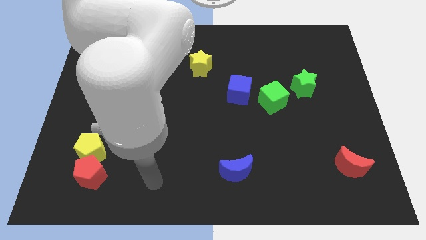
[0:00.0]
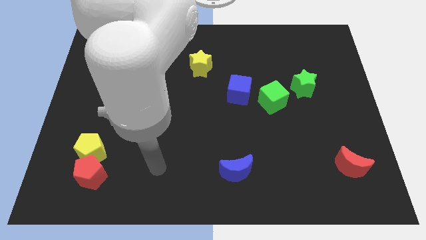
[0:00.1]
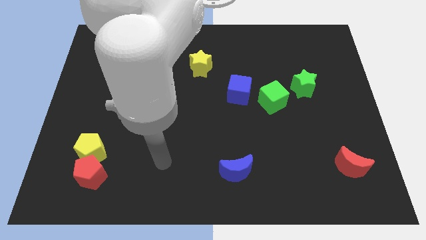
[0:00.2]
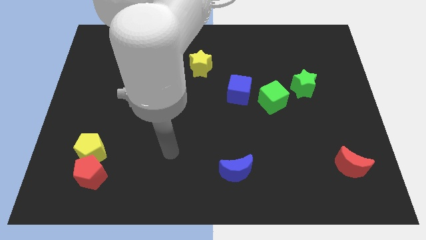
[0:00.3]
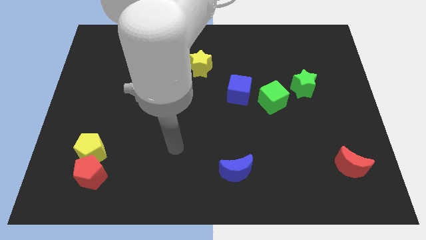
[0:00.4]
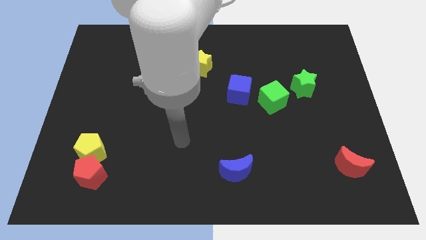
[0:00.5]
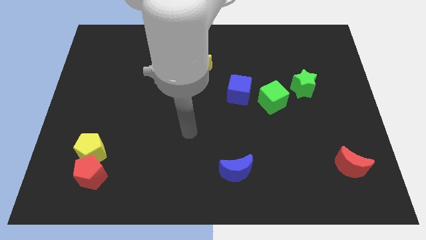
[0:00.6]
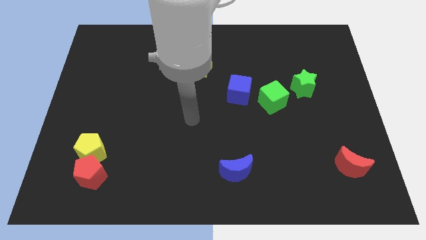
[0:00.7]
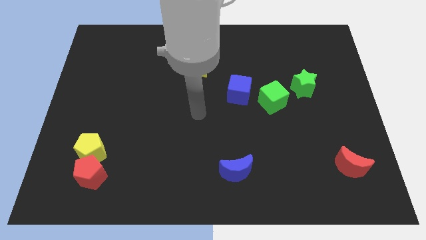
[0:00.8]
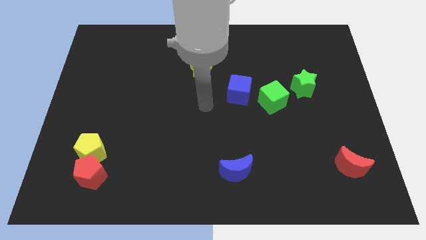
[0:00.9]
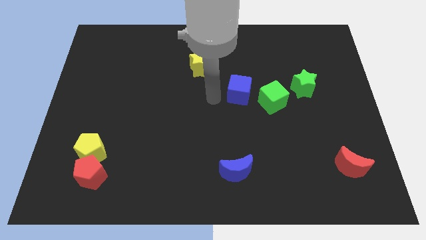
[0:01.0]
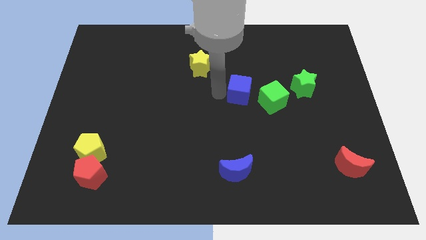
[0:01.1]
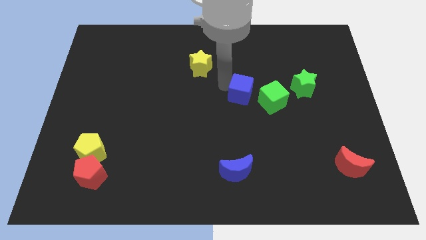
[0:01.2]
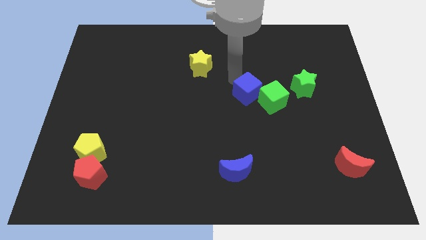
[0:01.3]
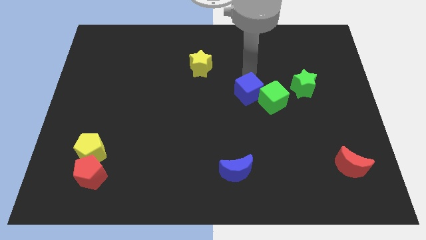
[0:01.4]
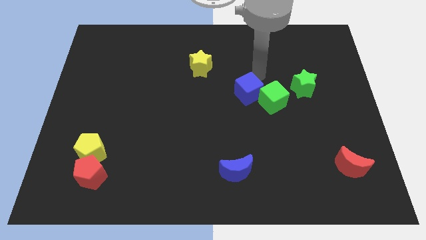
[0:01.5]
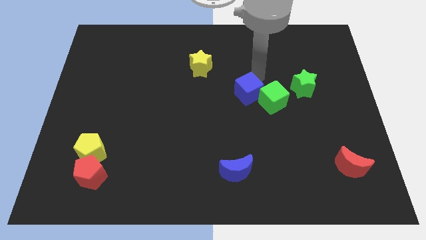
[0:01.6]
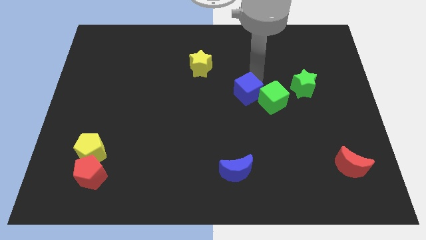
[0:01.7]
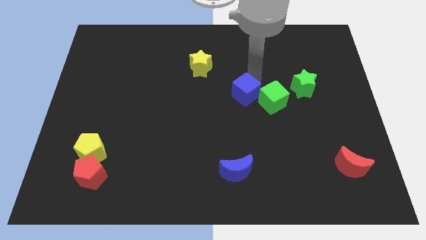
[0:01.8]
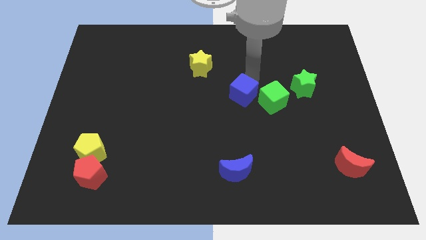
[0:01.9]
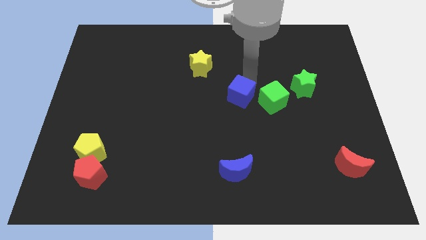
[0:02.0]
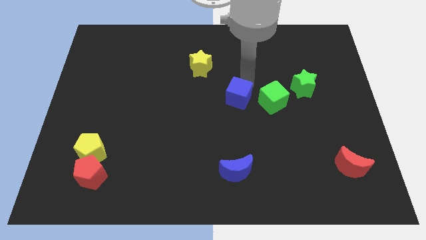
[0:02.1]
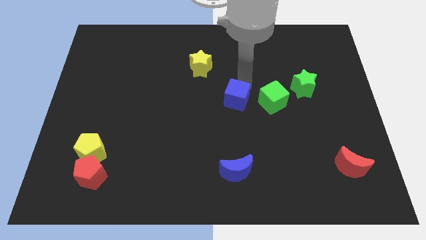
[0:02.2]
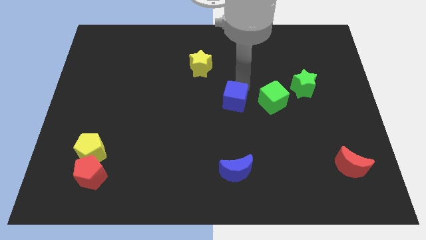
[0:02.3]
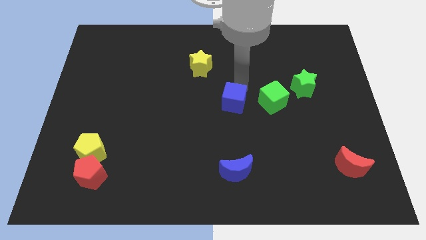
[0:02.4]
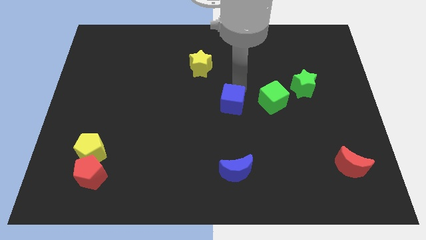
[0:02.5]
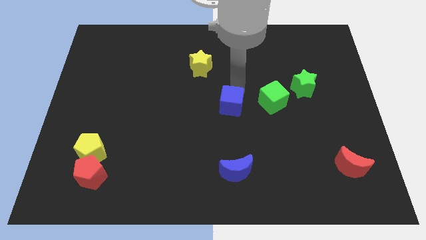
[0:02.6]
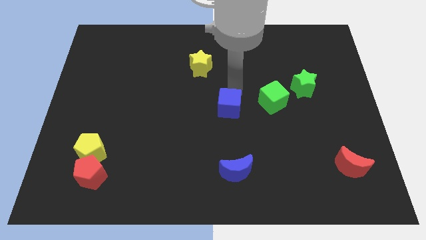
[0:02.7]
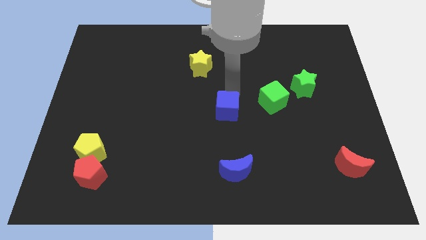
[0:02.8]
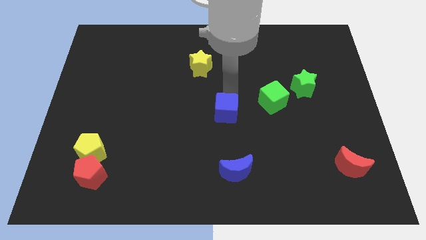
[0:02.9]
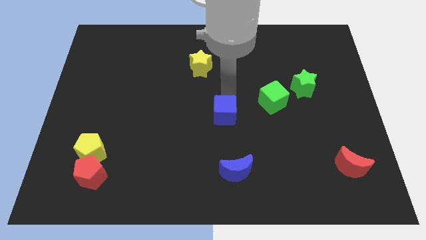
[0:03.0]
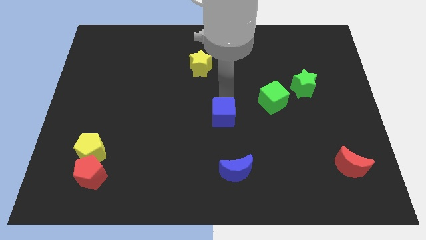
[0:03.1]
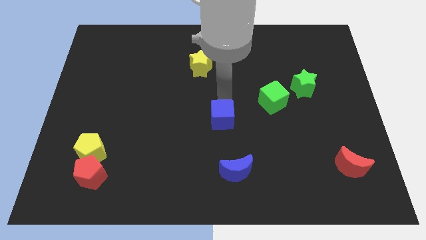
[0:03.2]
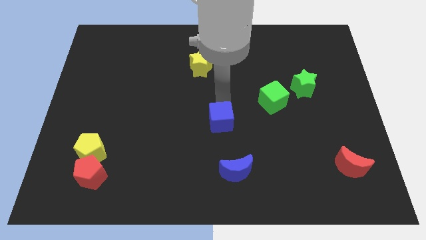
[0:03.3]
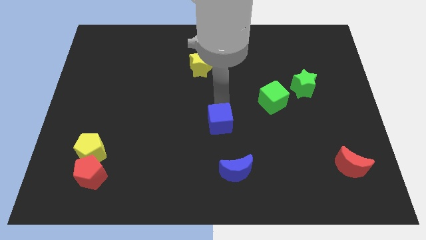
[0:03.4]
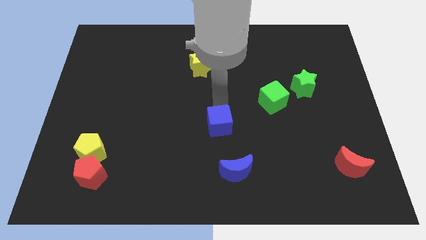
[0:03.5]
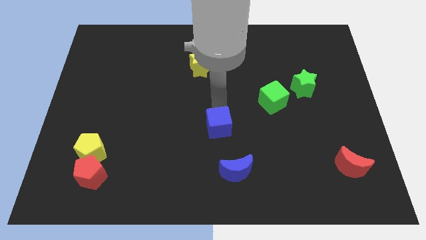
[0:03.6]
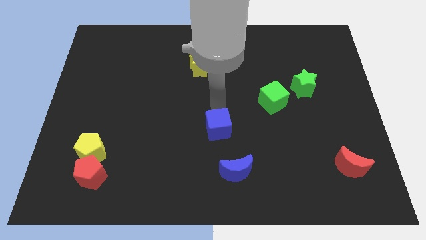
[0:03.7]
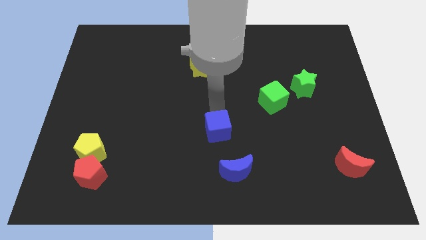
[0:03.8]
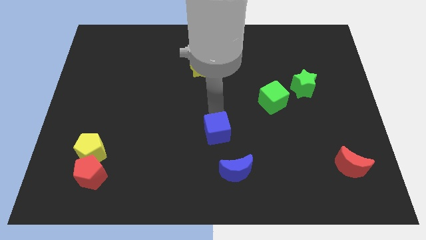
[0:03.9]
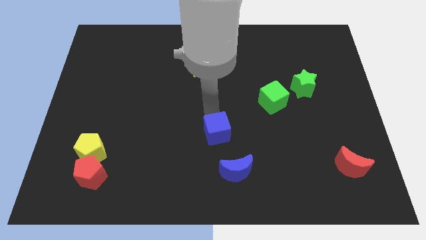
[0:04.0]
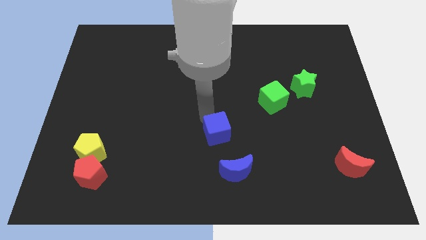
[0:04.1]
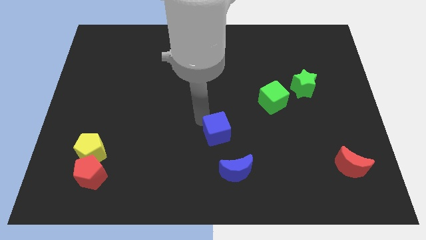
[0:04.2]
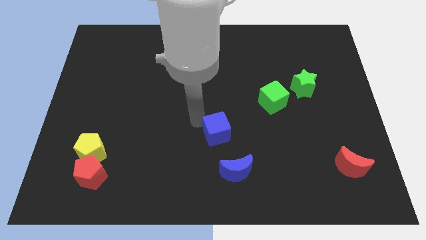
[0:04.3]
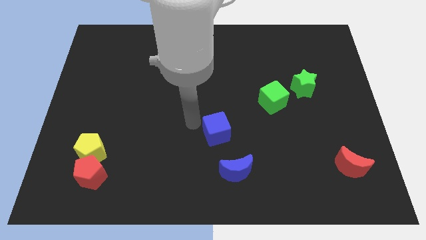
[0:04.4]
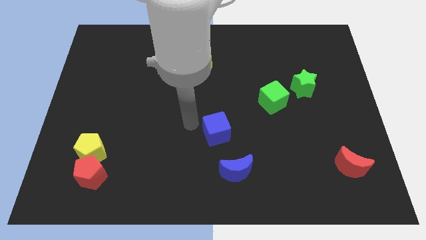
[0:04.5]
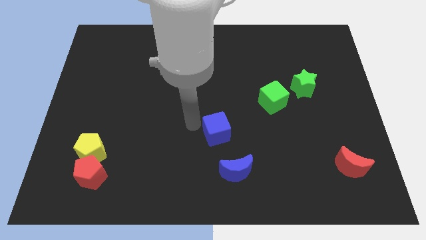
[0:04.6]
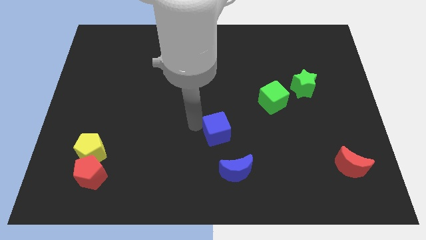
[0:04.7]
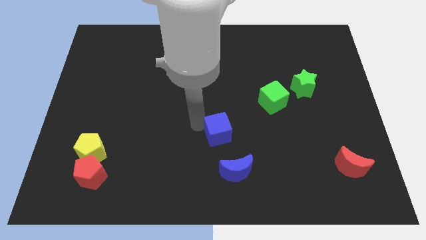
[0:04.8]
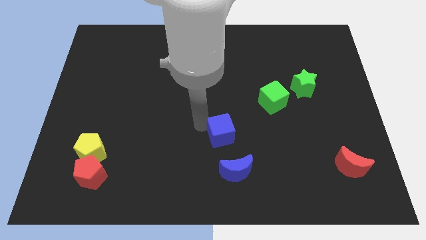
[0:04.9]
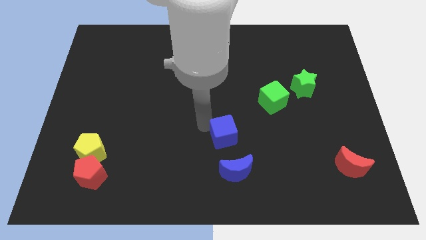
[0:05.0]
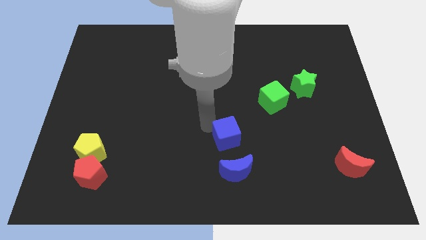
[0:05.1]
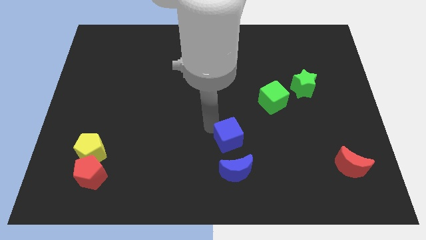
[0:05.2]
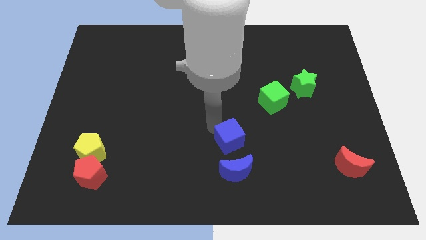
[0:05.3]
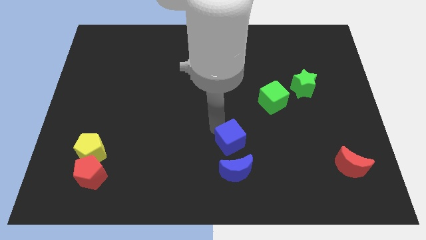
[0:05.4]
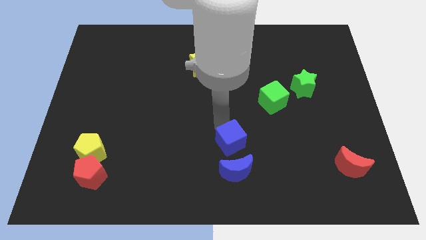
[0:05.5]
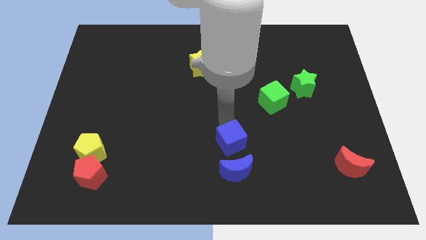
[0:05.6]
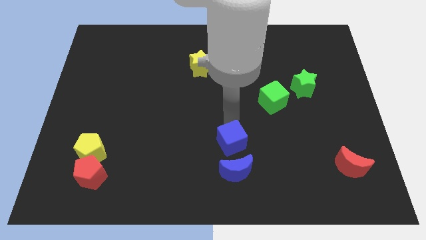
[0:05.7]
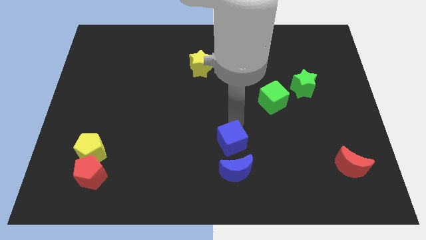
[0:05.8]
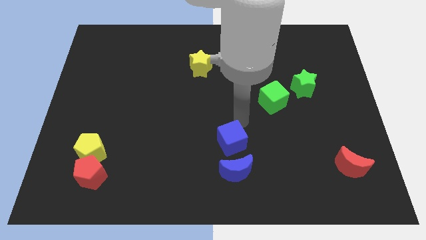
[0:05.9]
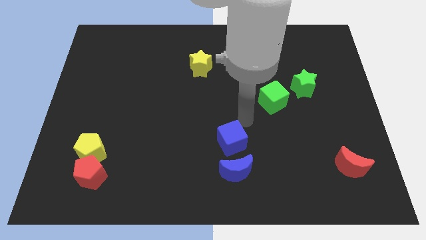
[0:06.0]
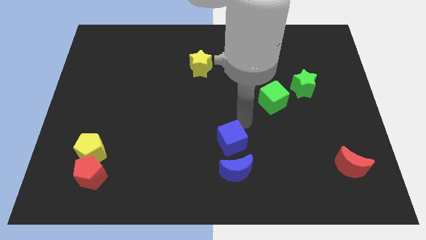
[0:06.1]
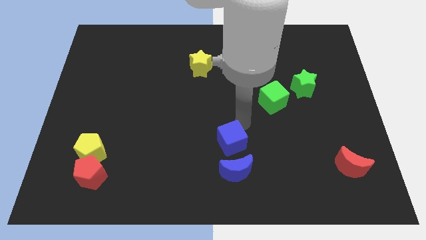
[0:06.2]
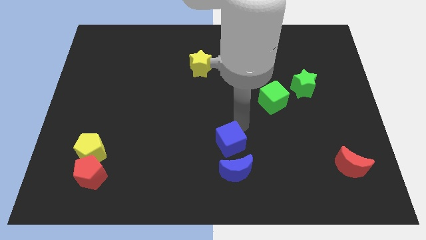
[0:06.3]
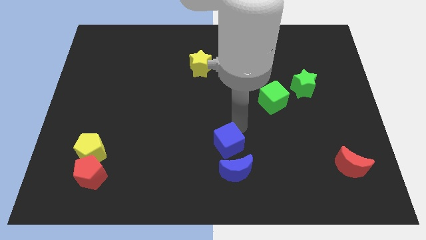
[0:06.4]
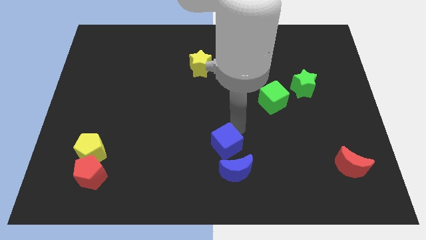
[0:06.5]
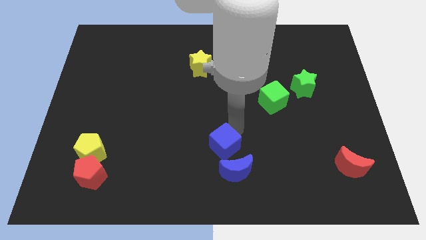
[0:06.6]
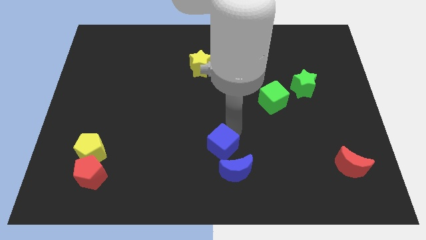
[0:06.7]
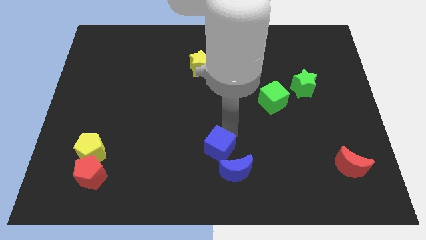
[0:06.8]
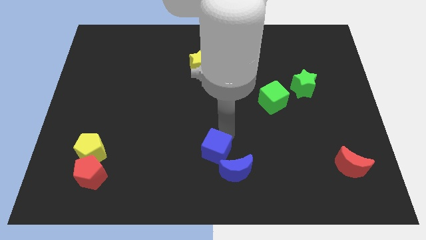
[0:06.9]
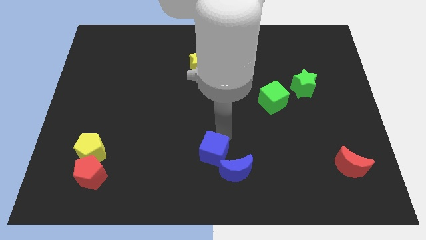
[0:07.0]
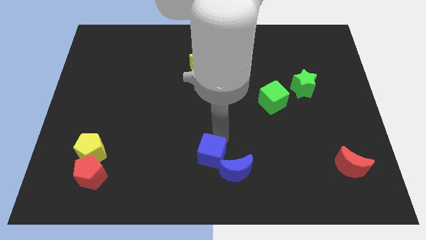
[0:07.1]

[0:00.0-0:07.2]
move the blue cube to the bottom
